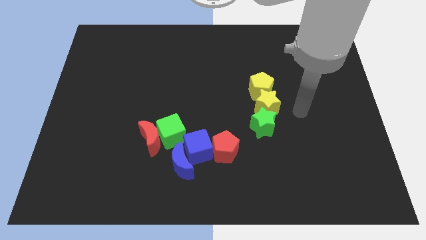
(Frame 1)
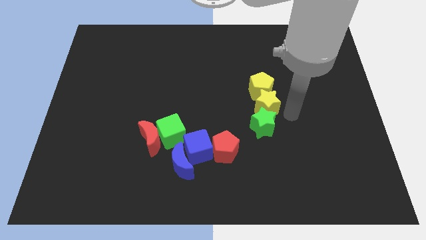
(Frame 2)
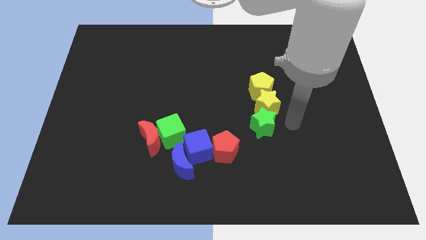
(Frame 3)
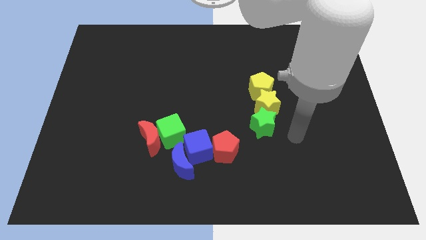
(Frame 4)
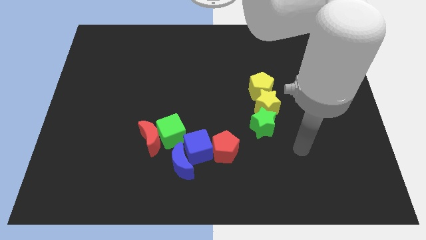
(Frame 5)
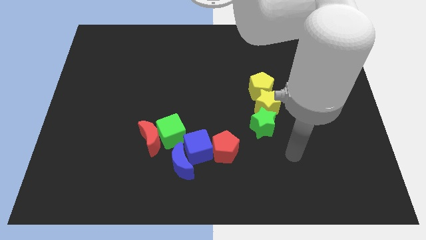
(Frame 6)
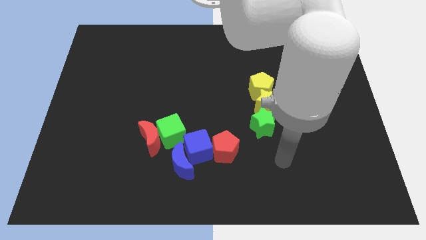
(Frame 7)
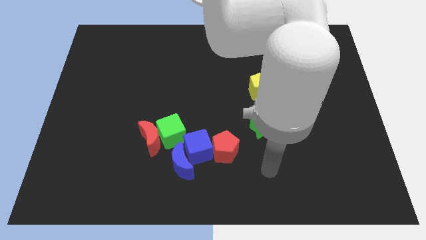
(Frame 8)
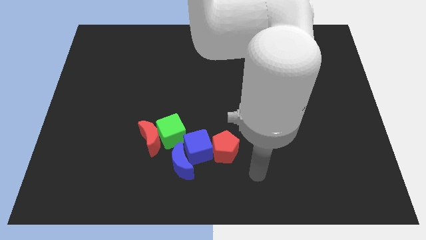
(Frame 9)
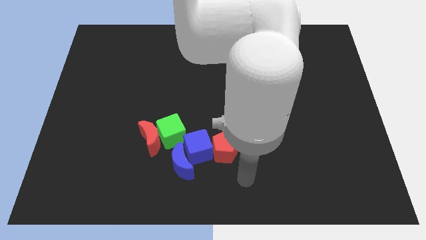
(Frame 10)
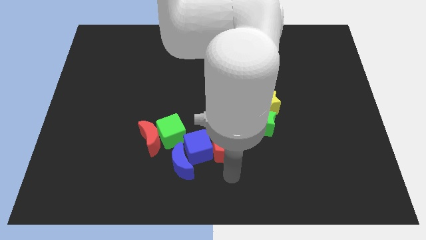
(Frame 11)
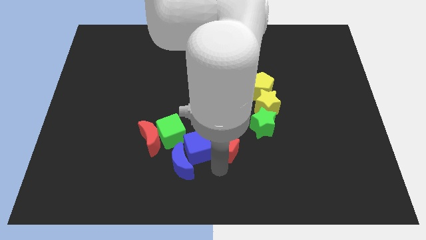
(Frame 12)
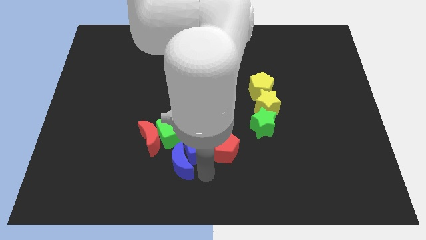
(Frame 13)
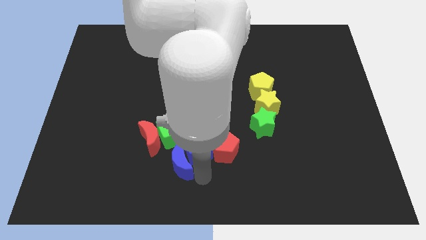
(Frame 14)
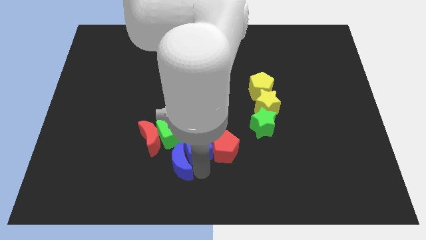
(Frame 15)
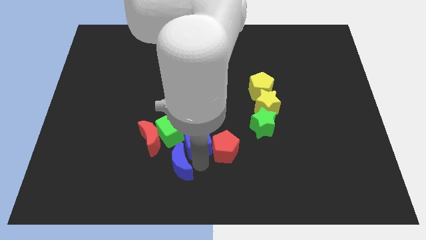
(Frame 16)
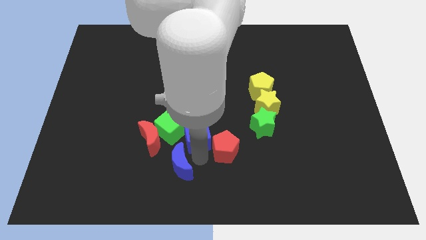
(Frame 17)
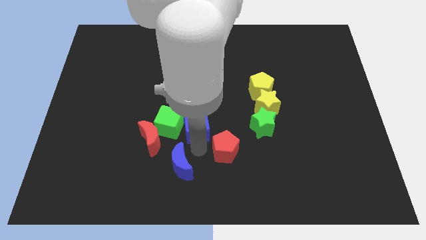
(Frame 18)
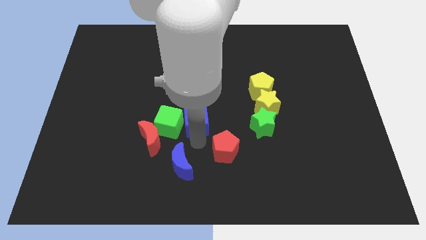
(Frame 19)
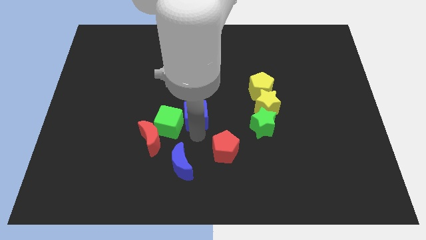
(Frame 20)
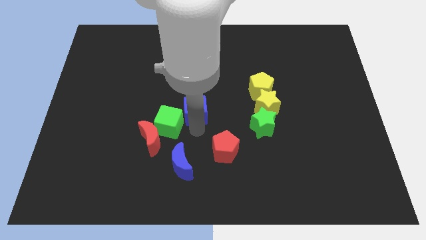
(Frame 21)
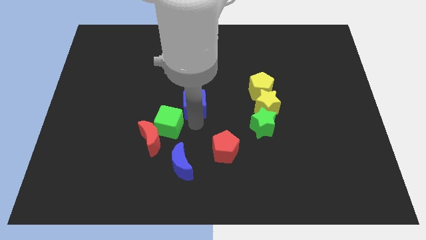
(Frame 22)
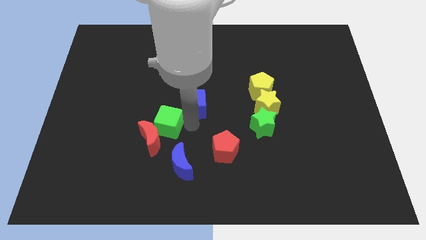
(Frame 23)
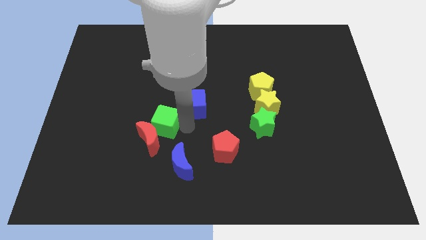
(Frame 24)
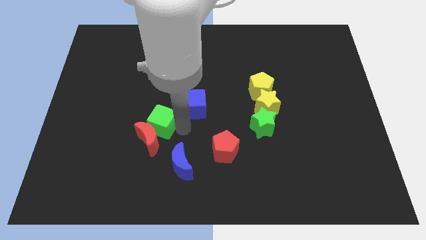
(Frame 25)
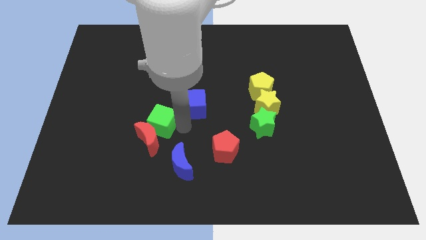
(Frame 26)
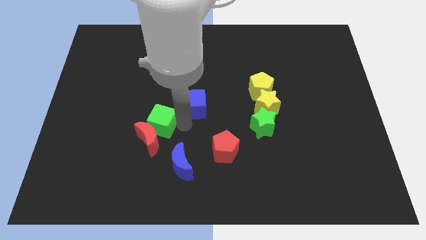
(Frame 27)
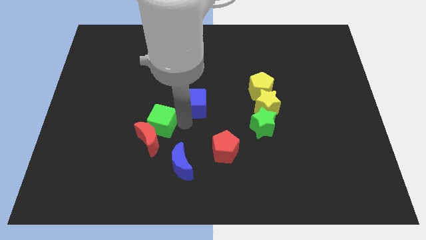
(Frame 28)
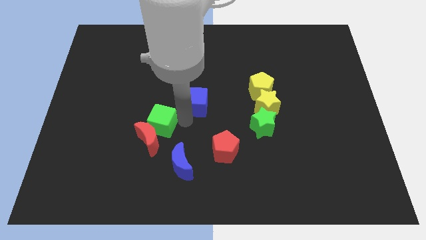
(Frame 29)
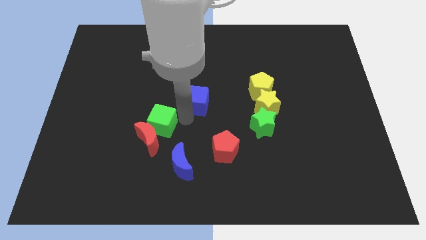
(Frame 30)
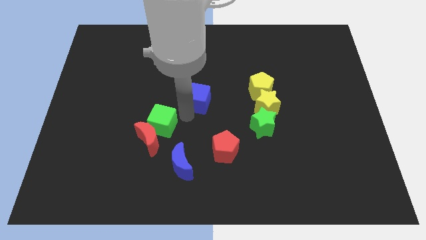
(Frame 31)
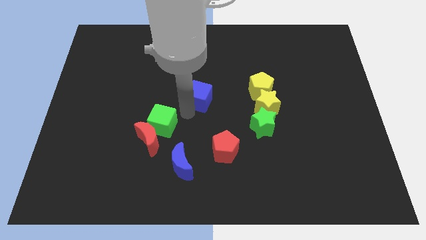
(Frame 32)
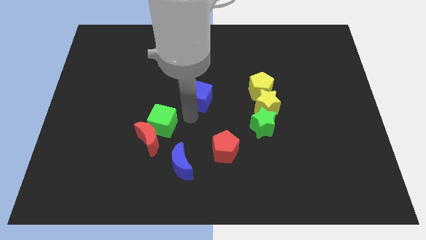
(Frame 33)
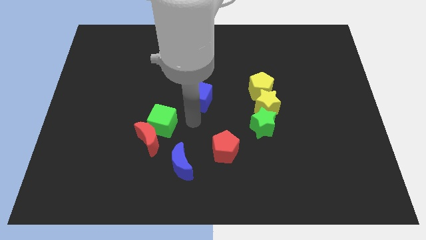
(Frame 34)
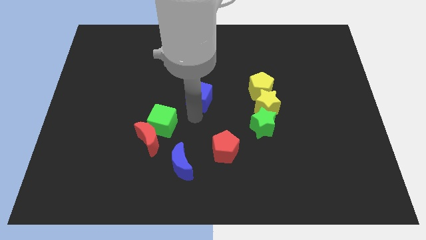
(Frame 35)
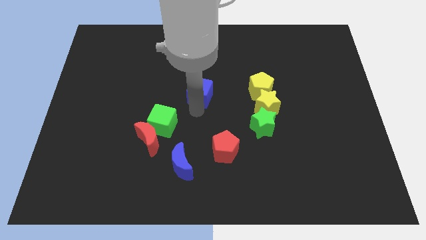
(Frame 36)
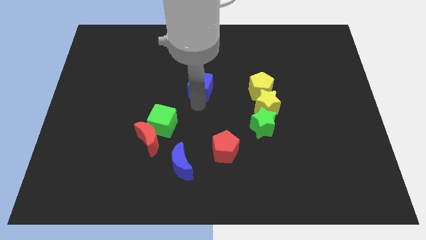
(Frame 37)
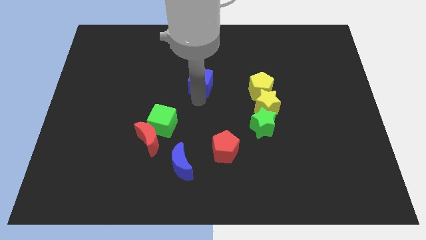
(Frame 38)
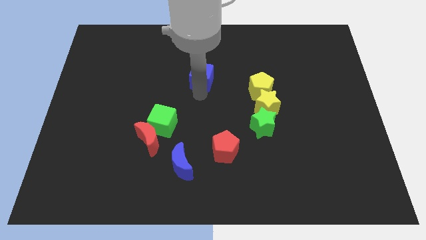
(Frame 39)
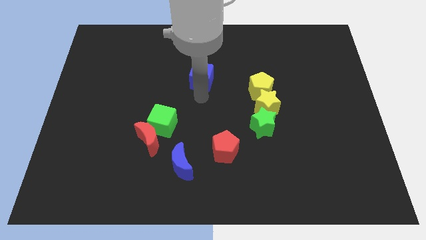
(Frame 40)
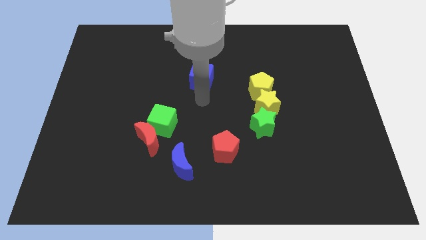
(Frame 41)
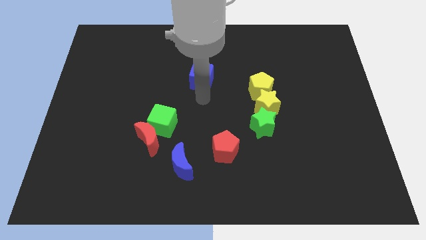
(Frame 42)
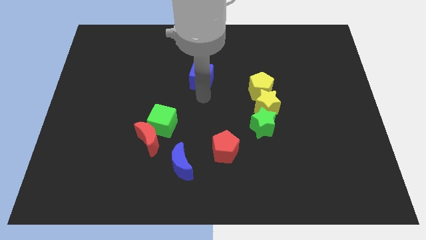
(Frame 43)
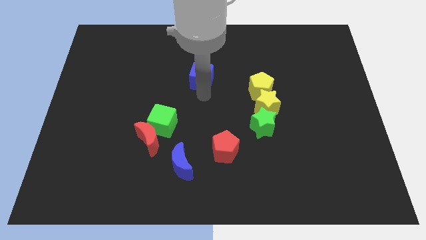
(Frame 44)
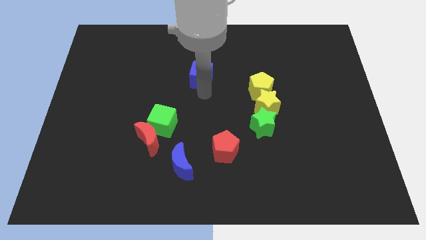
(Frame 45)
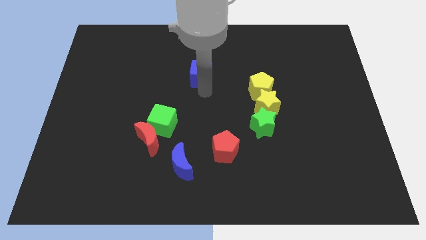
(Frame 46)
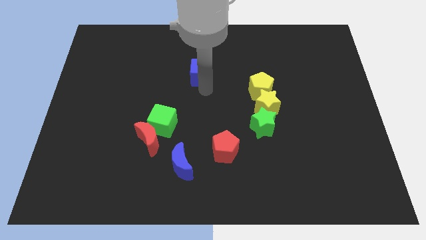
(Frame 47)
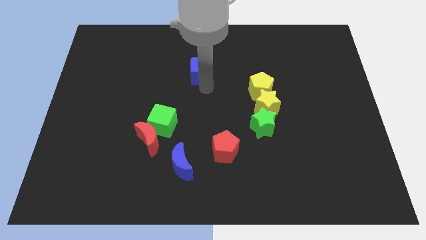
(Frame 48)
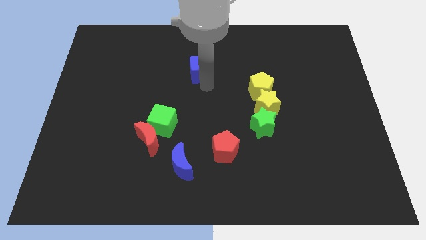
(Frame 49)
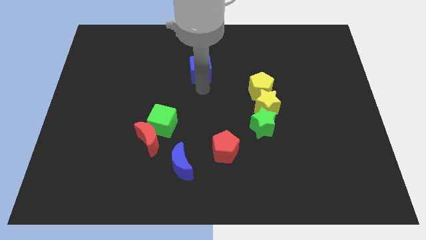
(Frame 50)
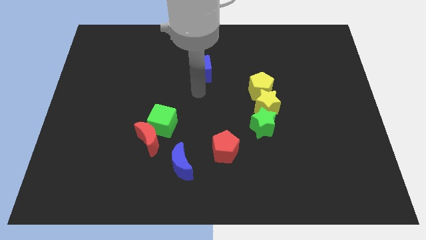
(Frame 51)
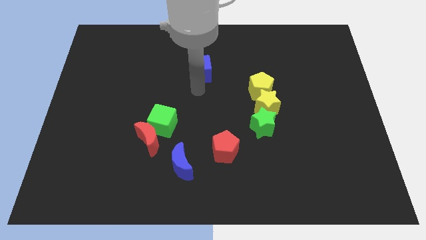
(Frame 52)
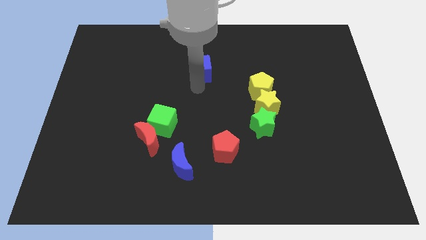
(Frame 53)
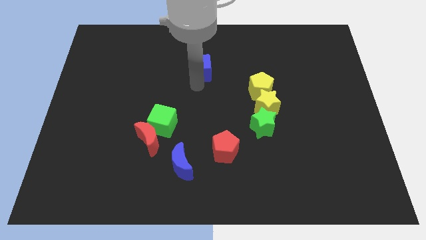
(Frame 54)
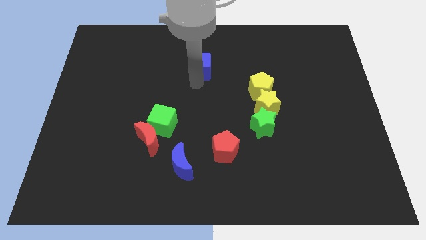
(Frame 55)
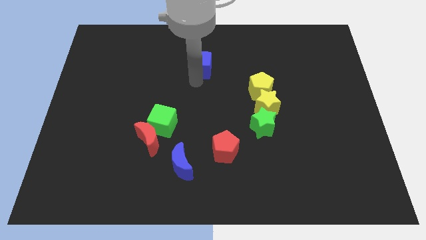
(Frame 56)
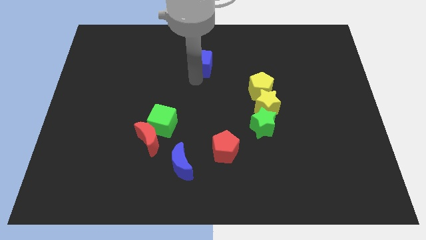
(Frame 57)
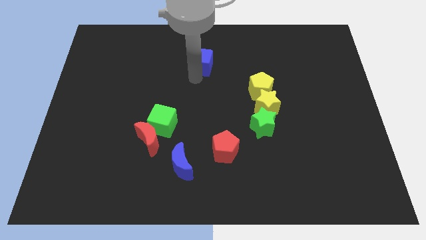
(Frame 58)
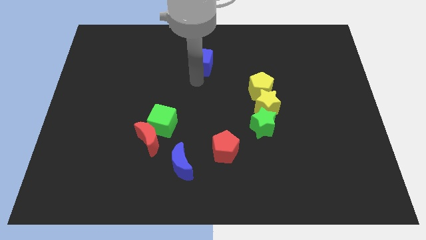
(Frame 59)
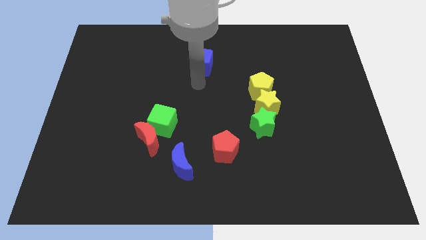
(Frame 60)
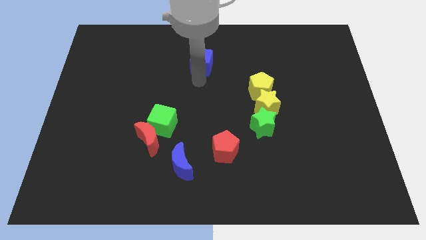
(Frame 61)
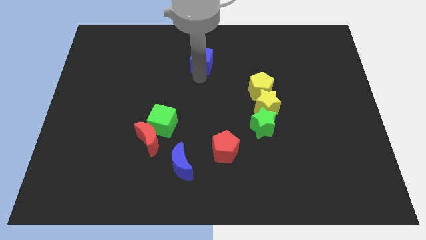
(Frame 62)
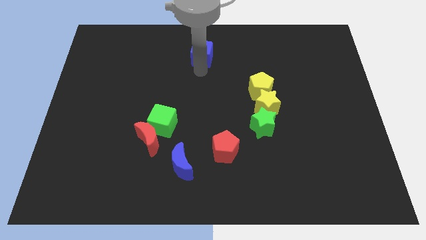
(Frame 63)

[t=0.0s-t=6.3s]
put the blue cube to the top

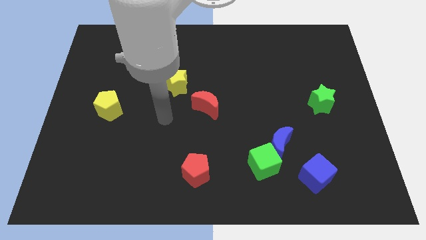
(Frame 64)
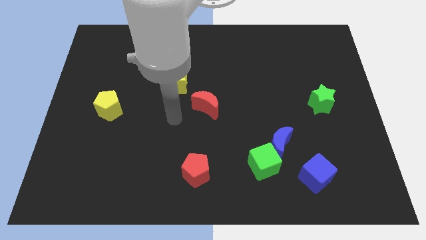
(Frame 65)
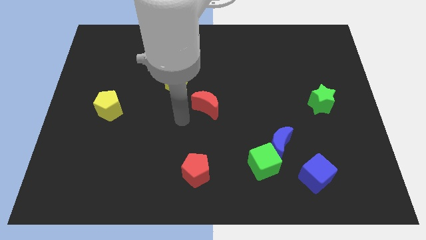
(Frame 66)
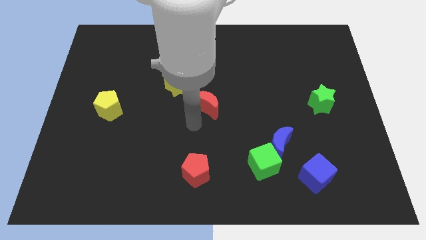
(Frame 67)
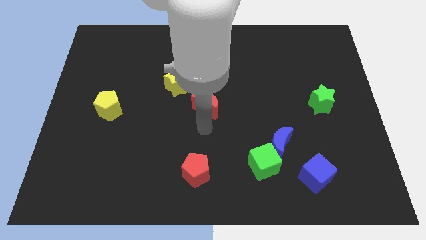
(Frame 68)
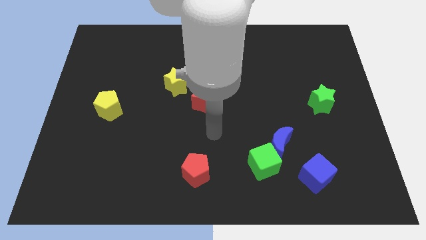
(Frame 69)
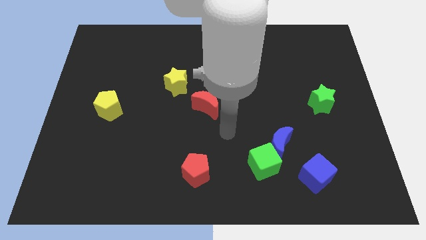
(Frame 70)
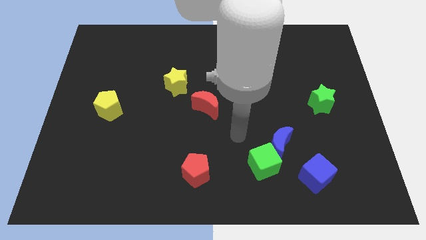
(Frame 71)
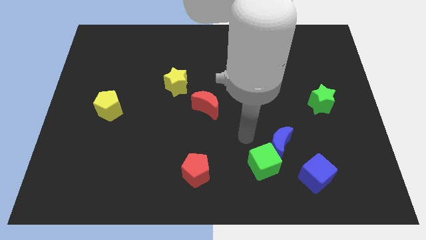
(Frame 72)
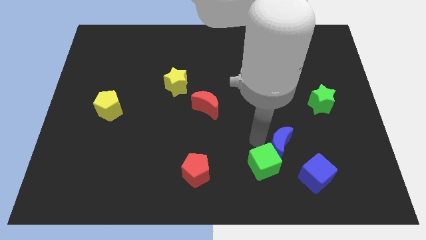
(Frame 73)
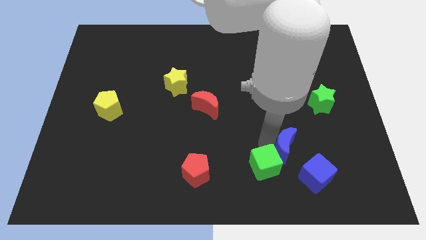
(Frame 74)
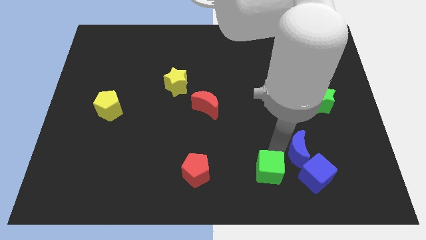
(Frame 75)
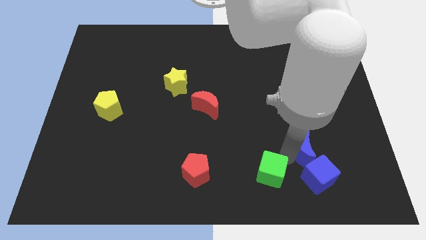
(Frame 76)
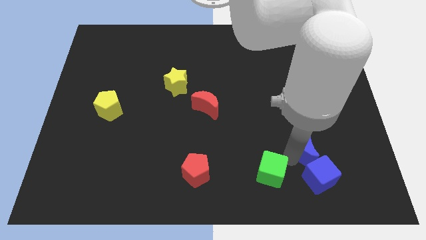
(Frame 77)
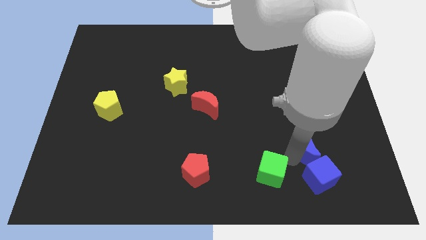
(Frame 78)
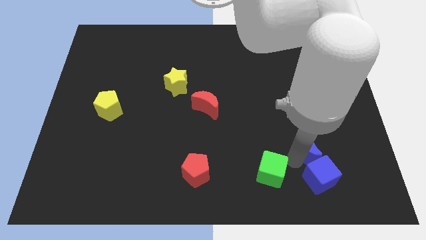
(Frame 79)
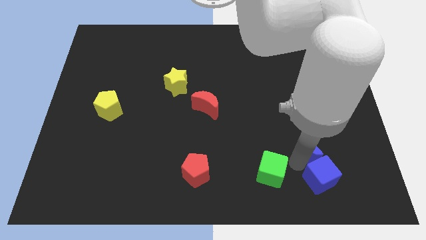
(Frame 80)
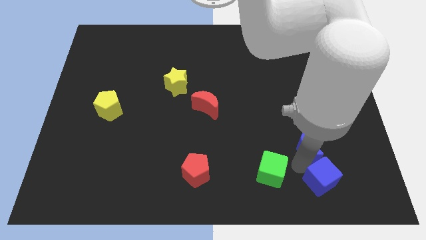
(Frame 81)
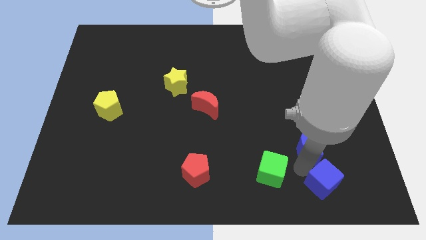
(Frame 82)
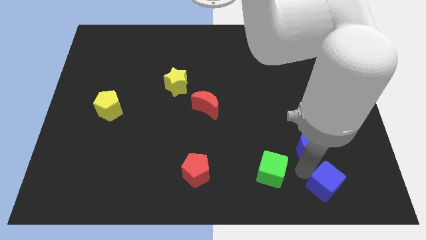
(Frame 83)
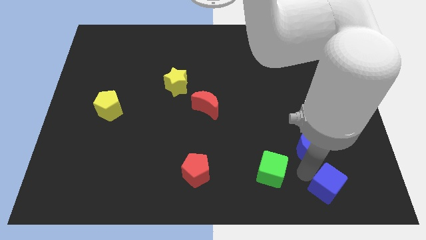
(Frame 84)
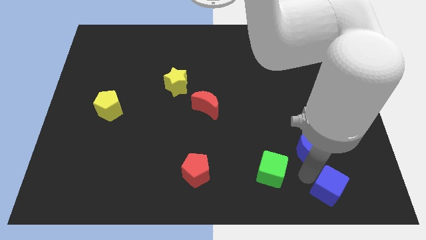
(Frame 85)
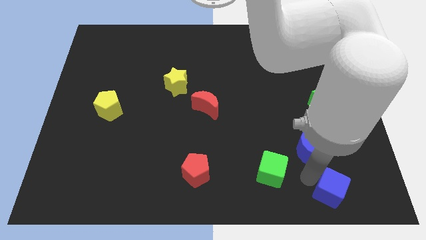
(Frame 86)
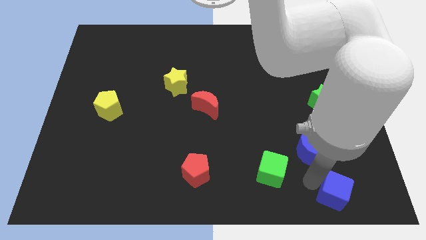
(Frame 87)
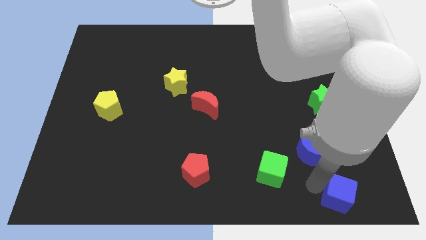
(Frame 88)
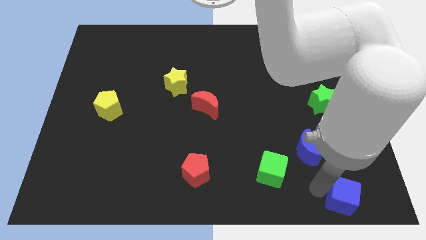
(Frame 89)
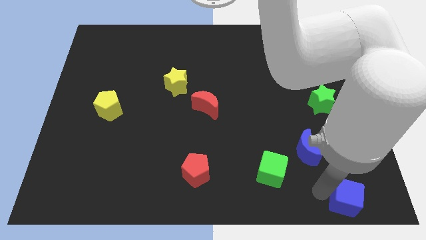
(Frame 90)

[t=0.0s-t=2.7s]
slide the blue cube to the bottom right
